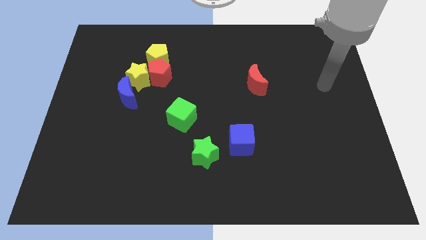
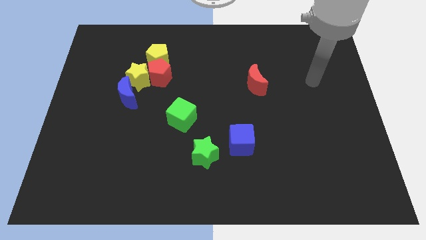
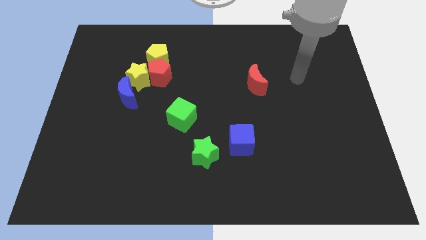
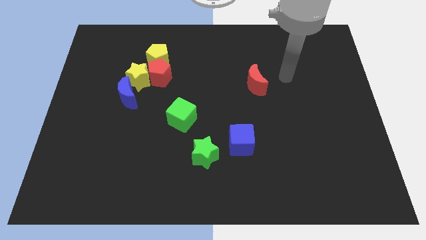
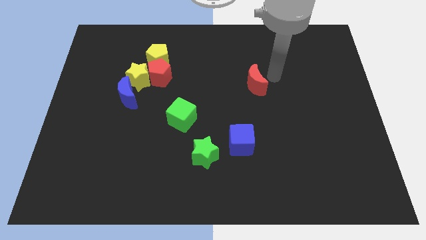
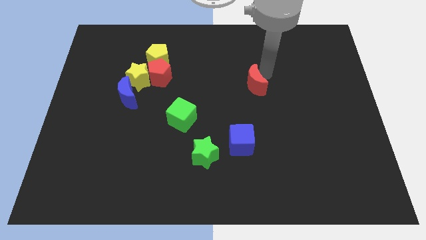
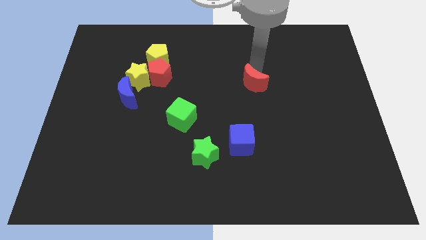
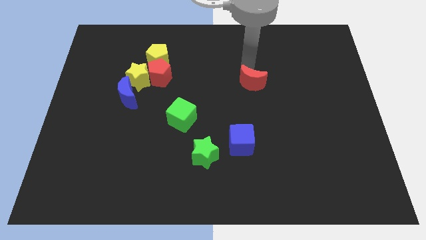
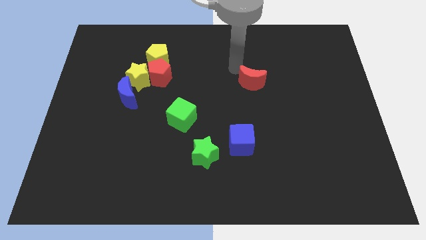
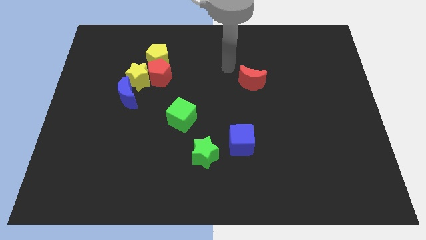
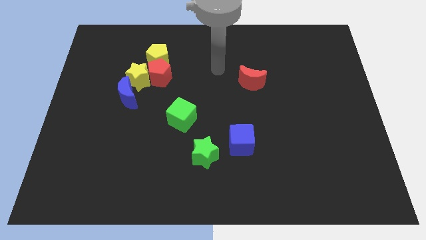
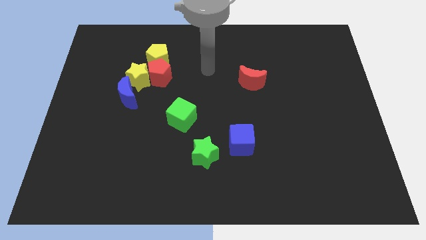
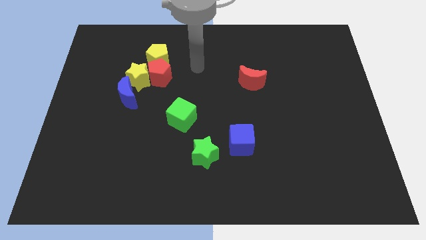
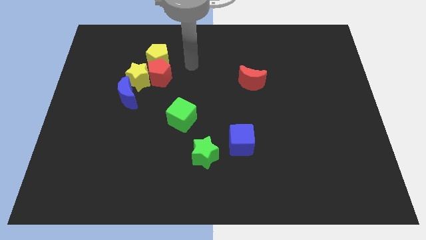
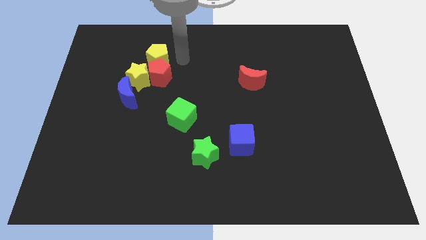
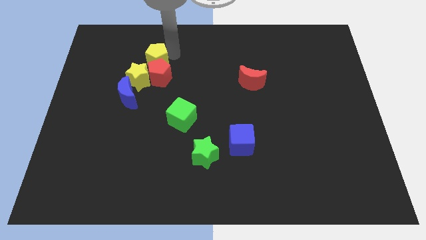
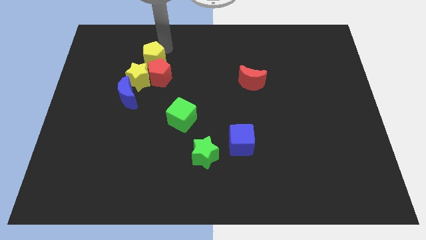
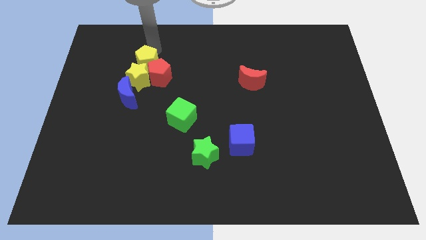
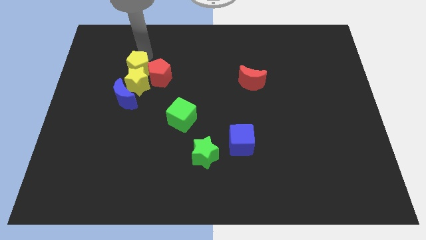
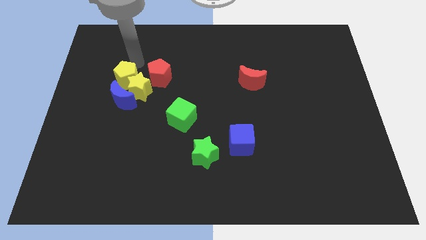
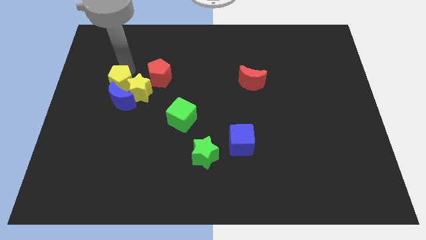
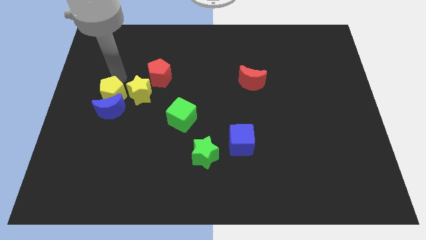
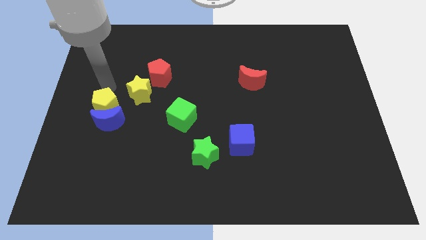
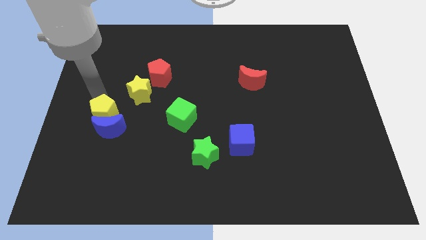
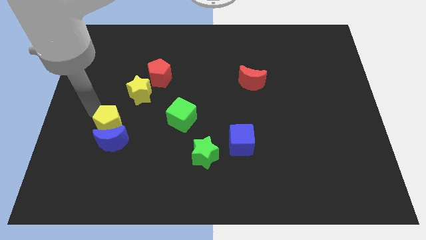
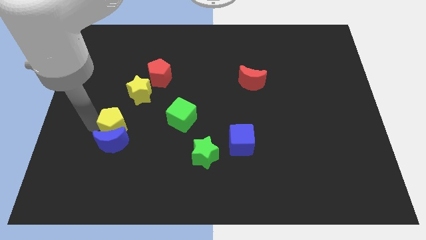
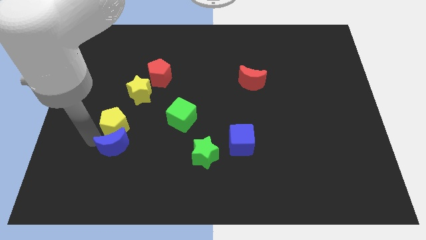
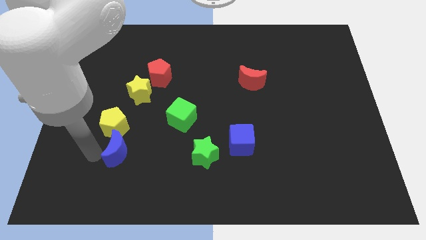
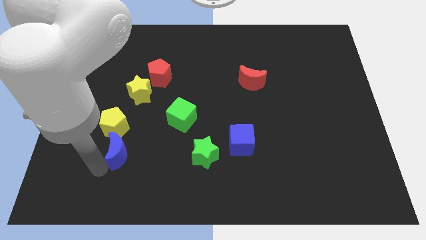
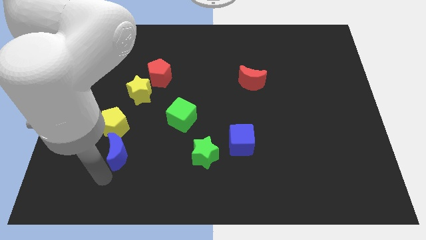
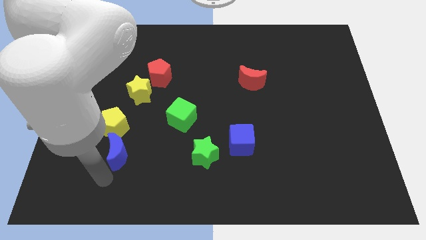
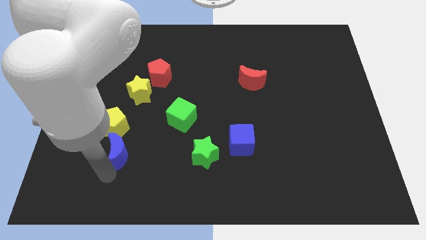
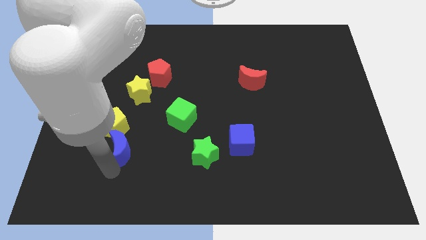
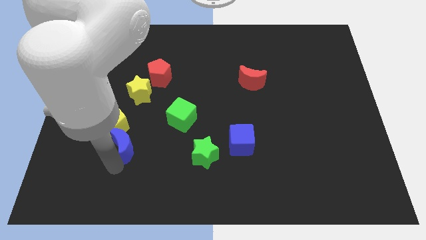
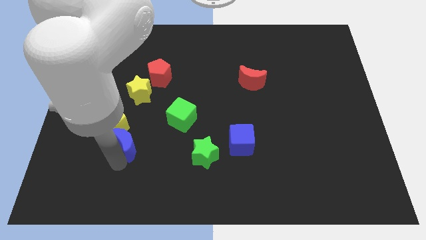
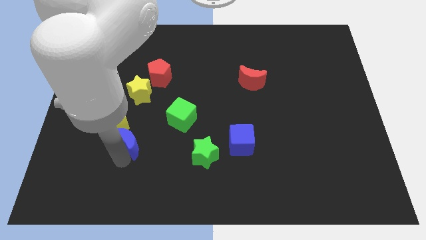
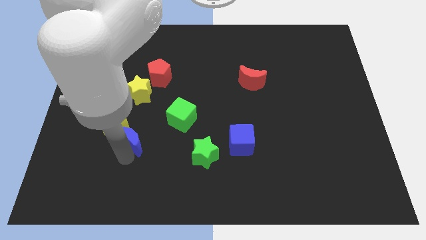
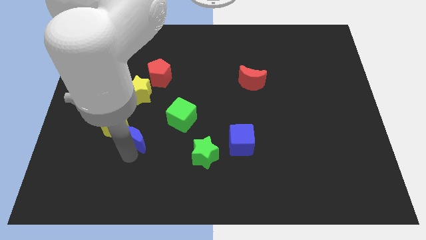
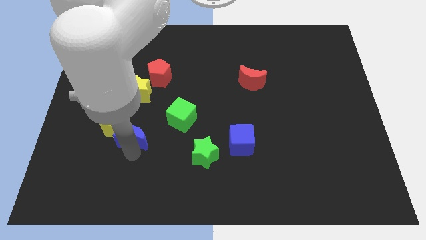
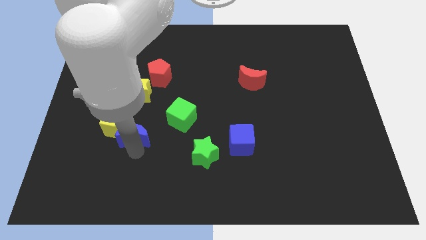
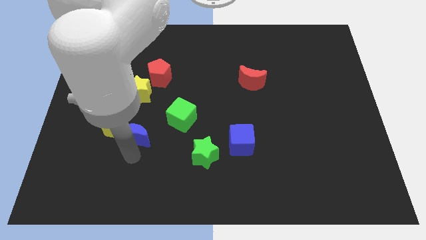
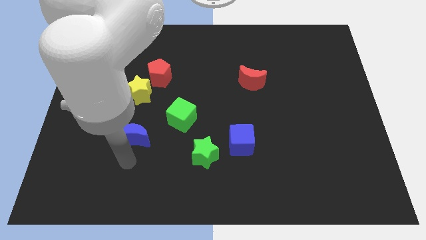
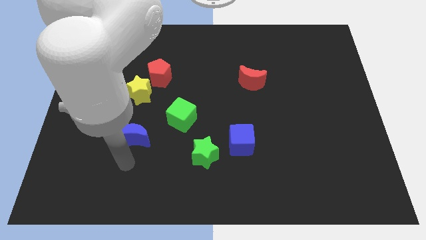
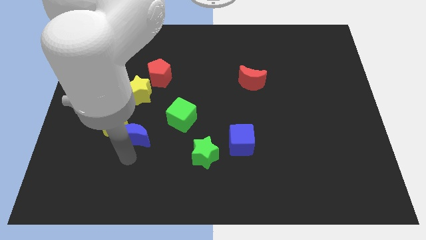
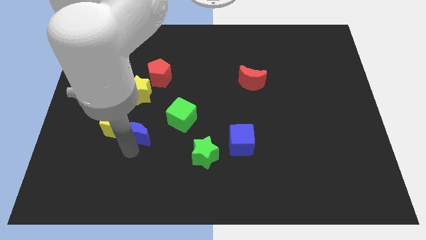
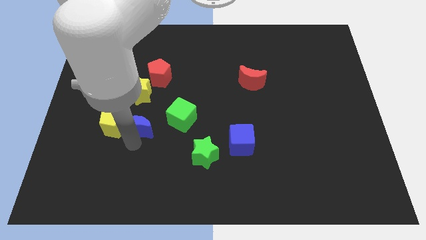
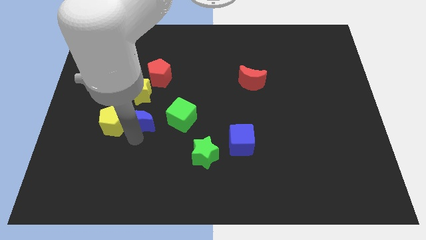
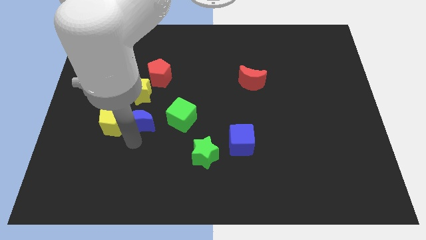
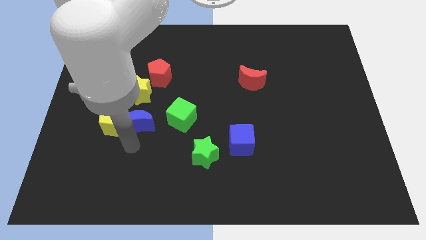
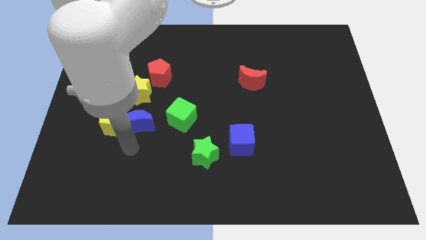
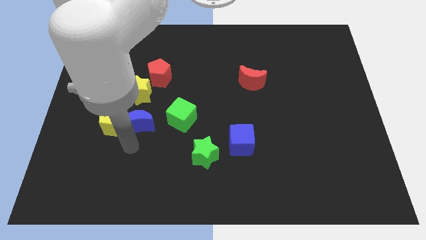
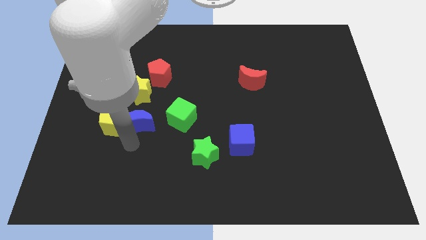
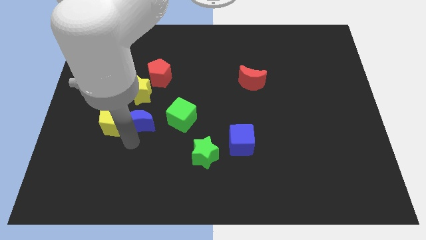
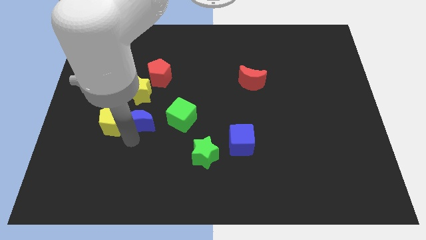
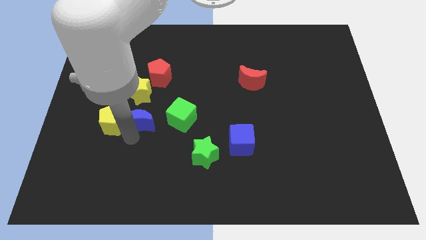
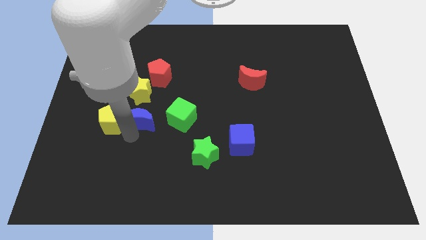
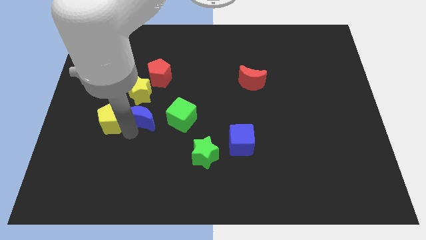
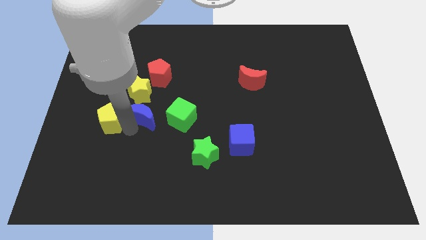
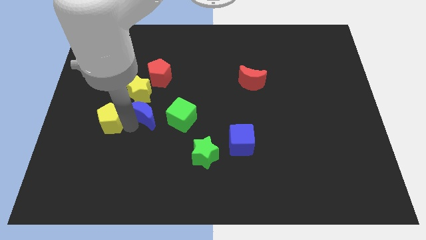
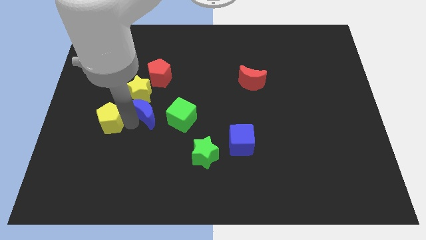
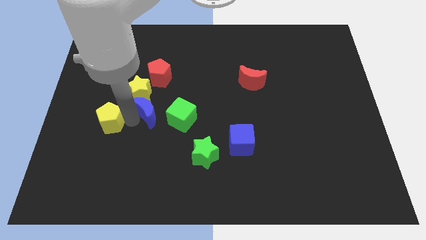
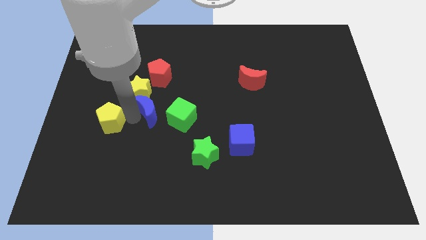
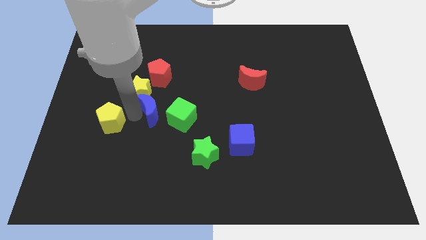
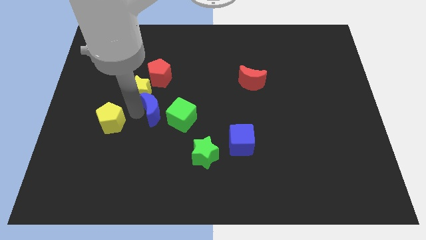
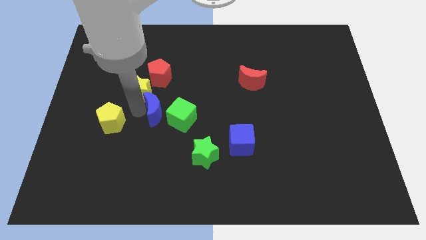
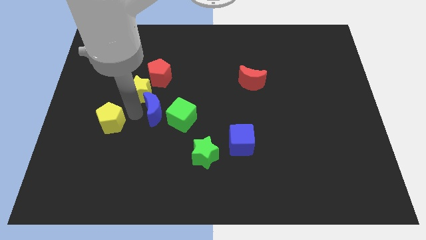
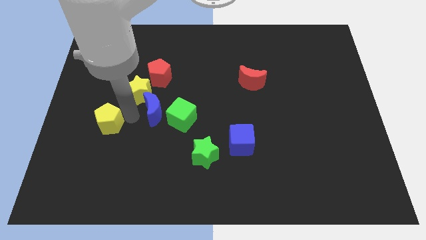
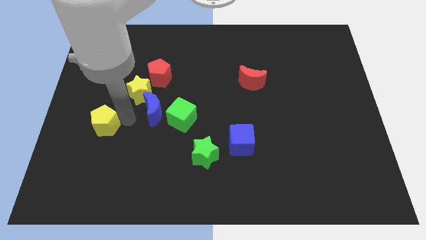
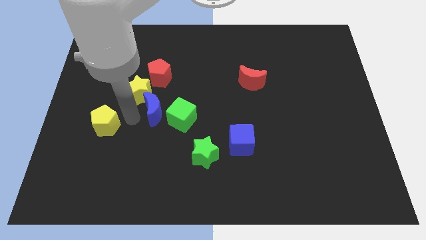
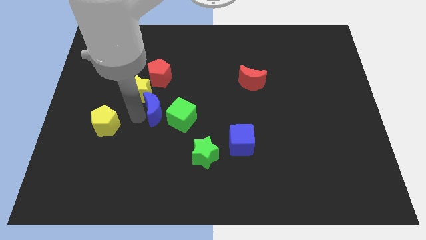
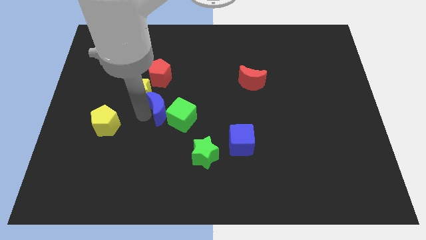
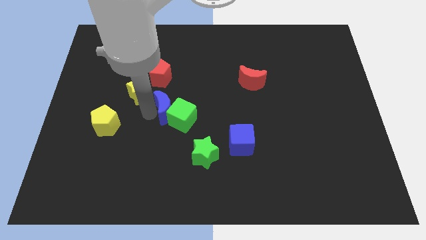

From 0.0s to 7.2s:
put the blue moon to the middle of the board

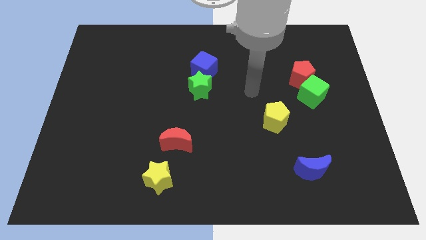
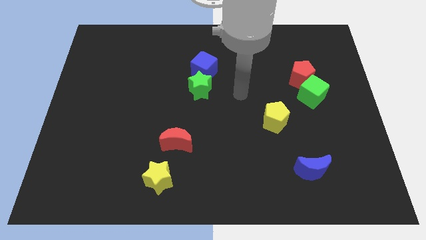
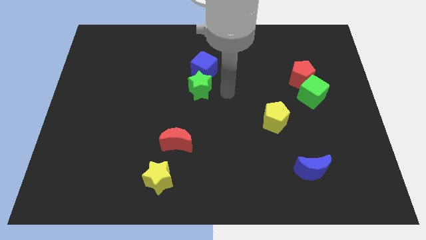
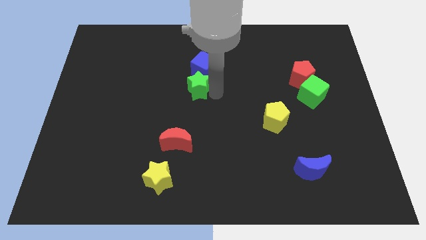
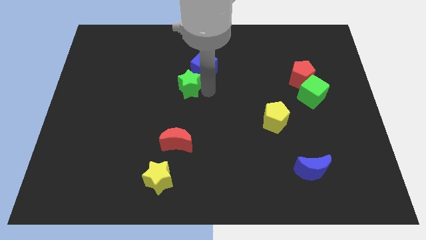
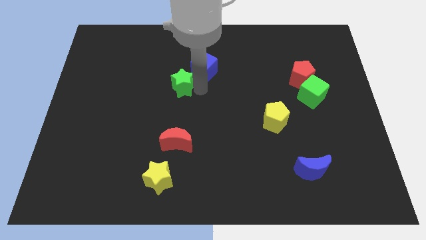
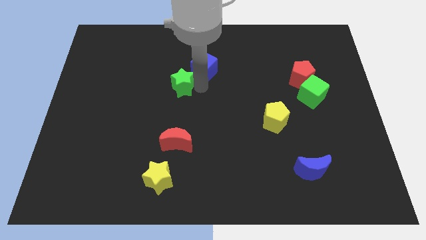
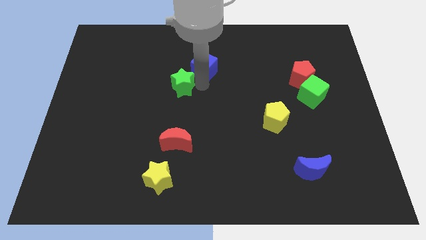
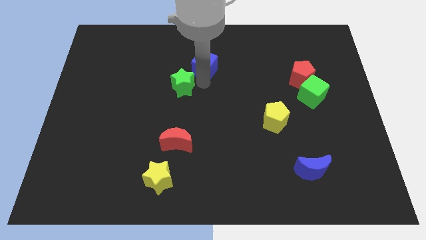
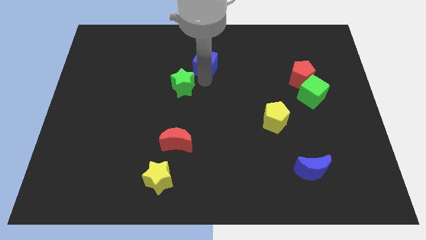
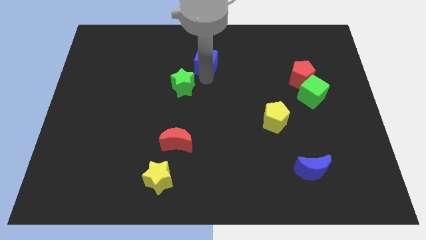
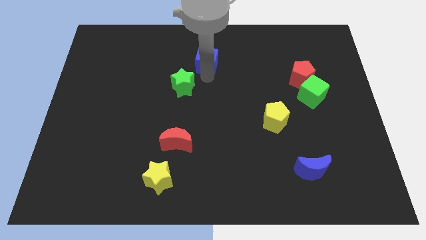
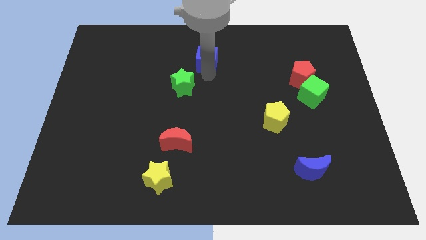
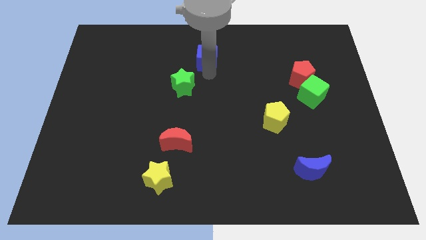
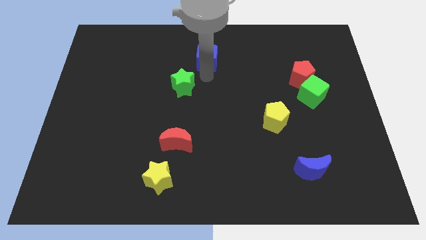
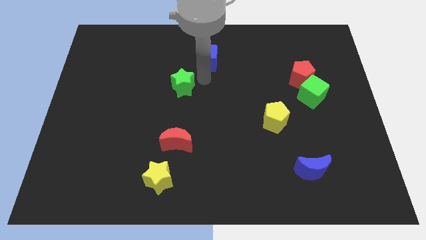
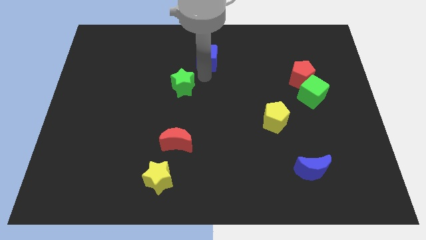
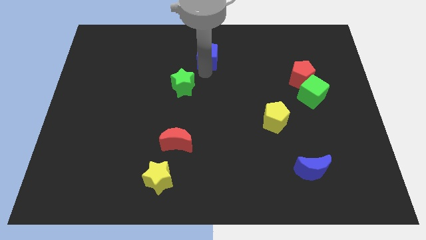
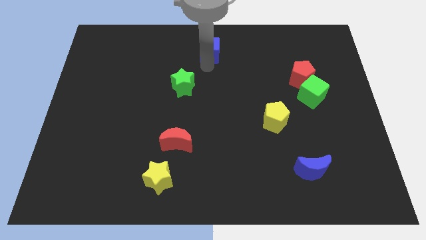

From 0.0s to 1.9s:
move the blue cube to the top
